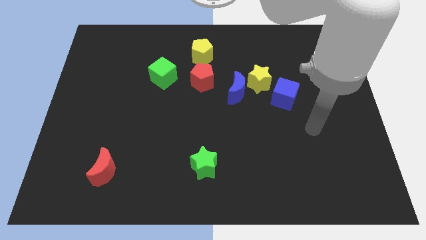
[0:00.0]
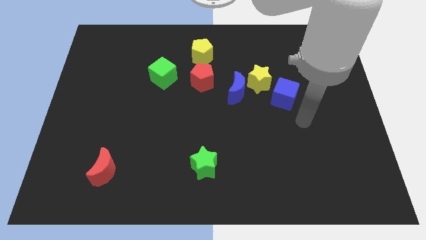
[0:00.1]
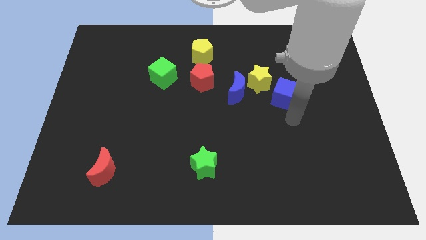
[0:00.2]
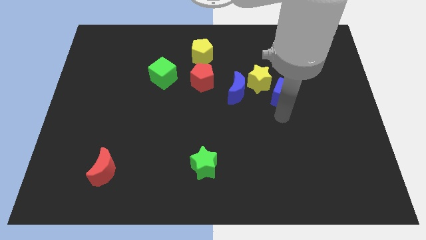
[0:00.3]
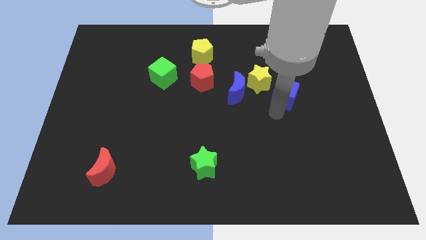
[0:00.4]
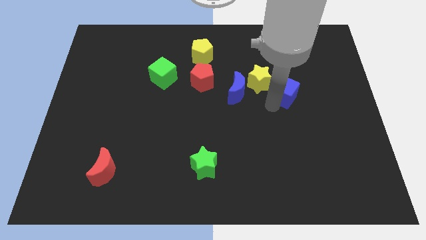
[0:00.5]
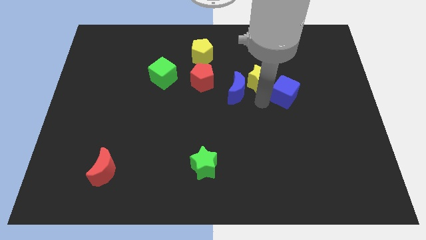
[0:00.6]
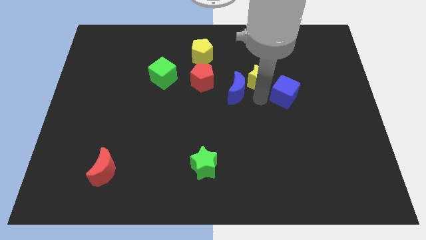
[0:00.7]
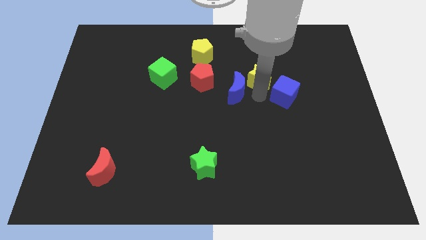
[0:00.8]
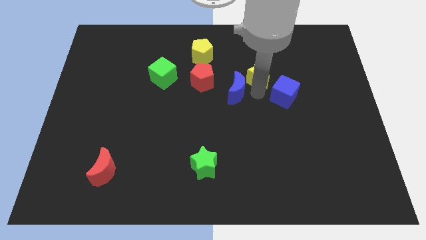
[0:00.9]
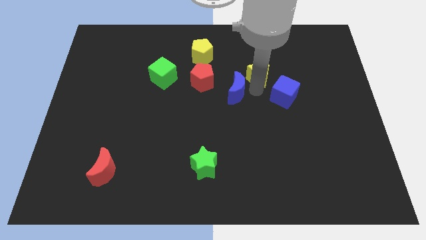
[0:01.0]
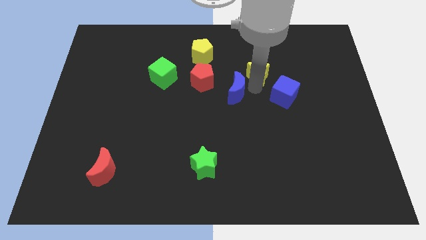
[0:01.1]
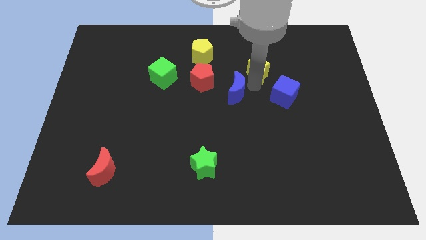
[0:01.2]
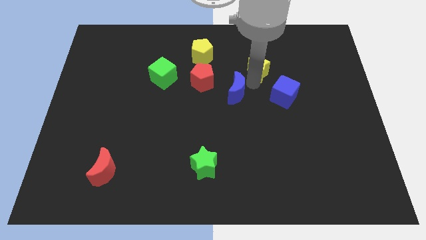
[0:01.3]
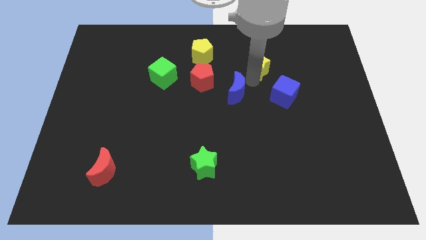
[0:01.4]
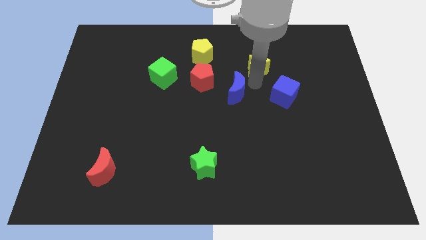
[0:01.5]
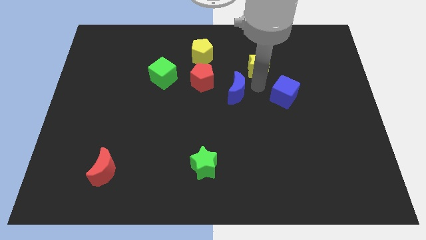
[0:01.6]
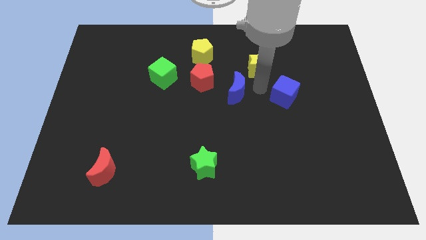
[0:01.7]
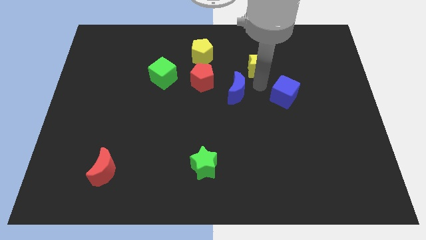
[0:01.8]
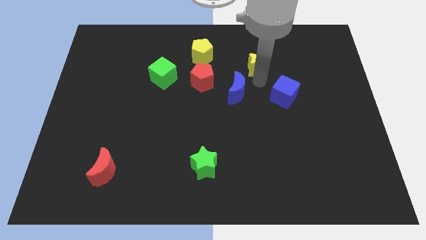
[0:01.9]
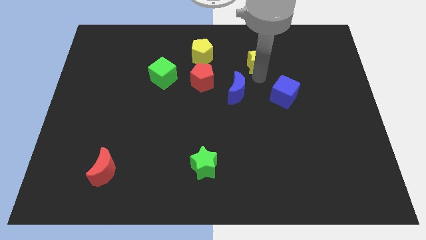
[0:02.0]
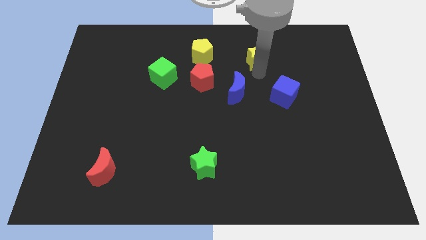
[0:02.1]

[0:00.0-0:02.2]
move the yellow star away from the blue moon and blue cube

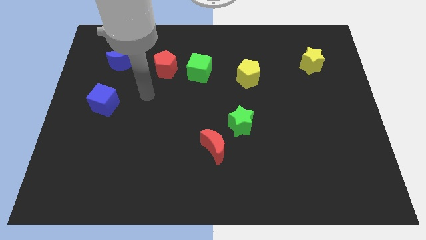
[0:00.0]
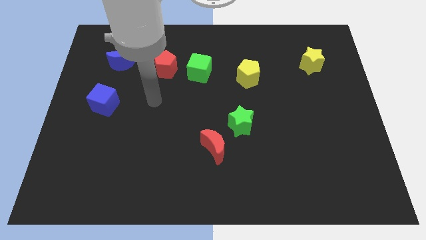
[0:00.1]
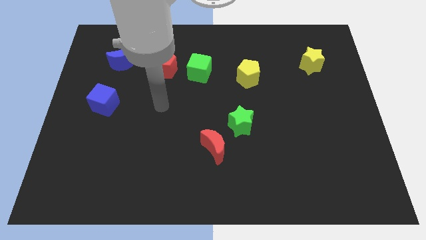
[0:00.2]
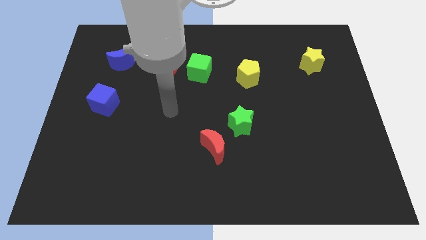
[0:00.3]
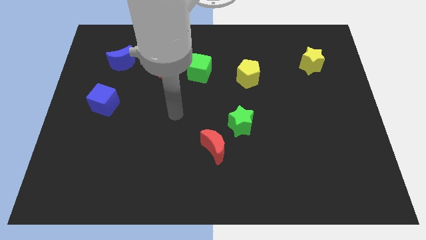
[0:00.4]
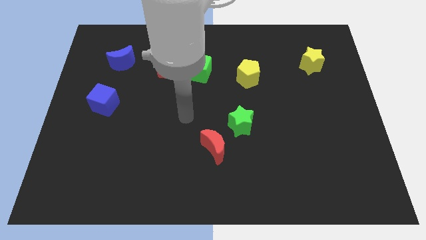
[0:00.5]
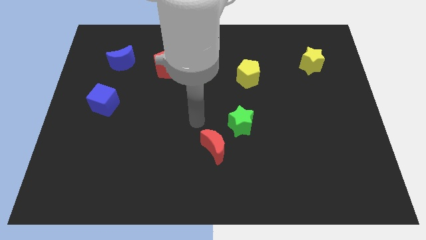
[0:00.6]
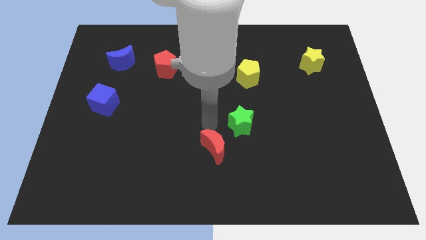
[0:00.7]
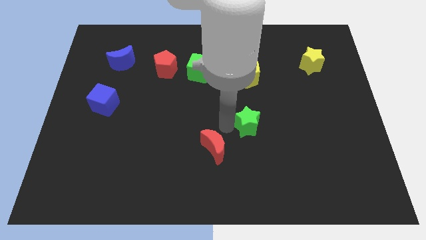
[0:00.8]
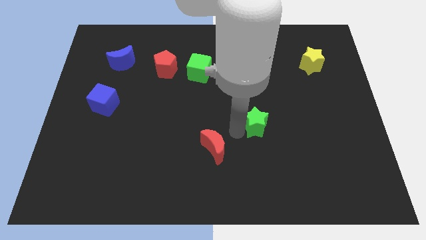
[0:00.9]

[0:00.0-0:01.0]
move the red moon away from the green star

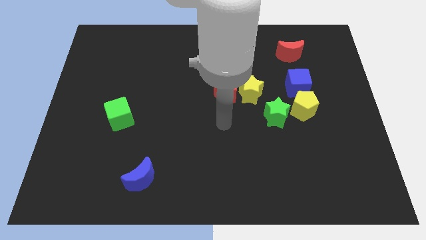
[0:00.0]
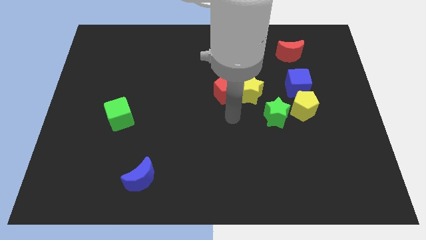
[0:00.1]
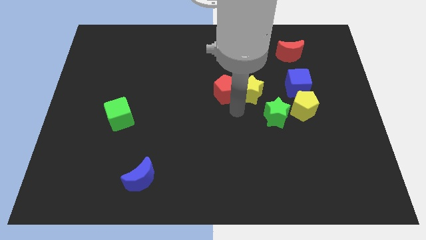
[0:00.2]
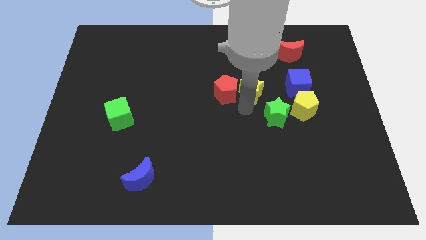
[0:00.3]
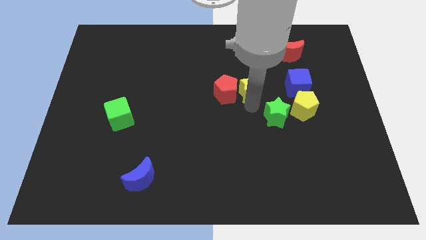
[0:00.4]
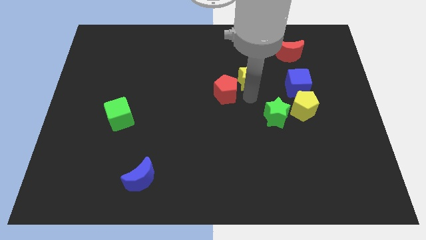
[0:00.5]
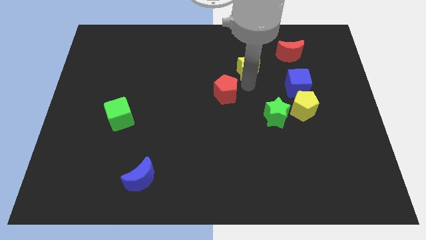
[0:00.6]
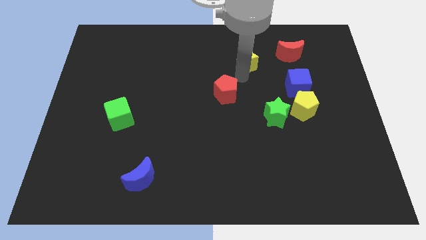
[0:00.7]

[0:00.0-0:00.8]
move the red pentagon away from the yellow star

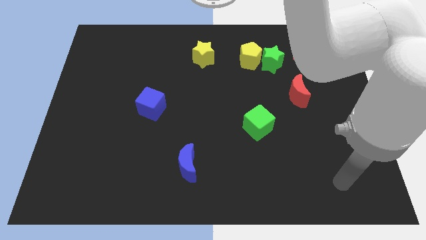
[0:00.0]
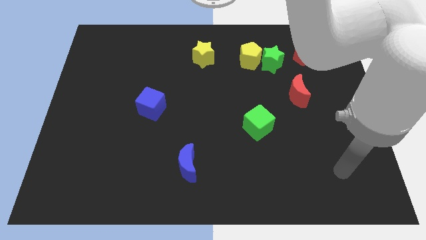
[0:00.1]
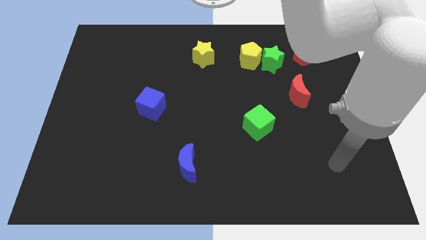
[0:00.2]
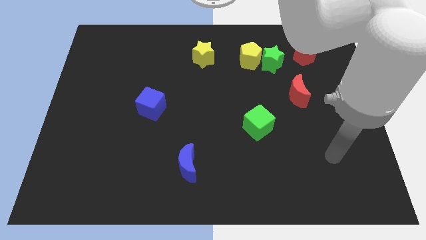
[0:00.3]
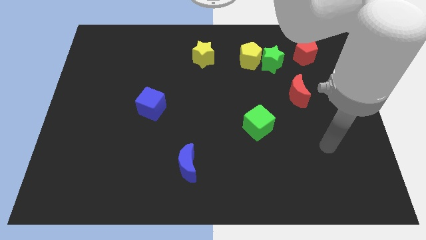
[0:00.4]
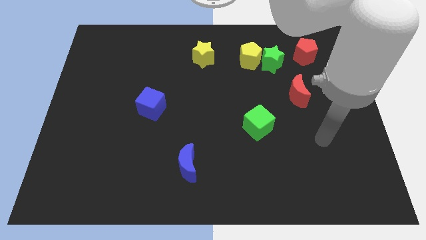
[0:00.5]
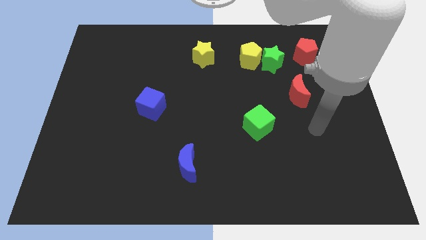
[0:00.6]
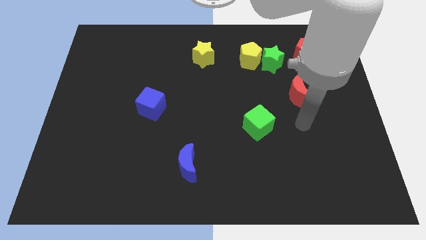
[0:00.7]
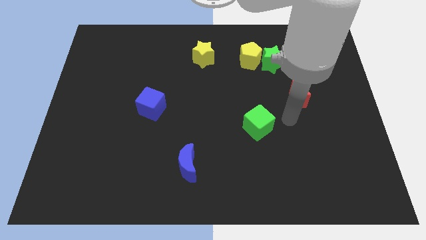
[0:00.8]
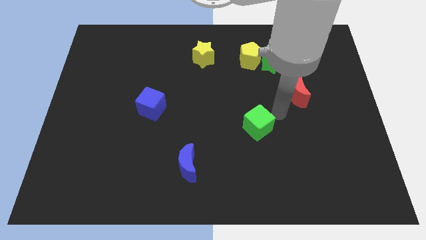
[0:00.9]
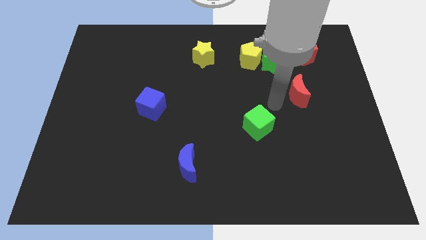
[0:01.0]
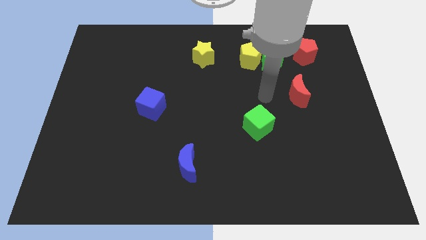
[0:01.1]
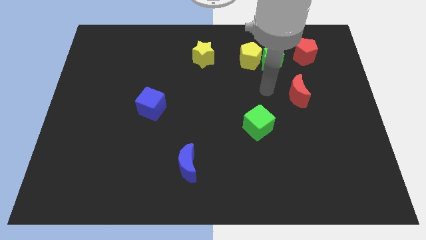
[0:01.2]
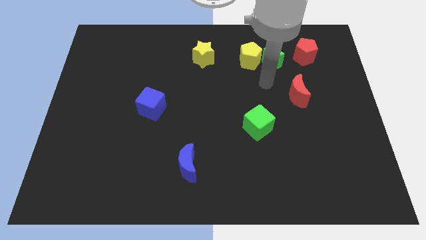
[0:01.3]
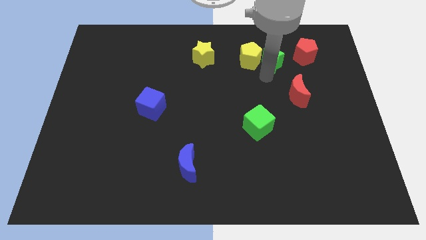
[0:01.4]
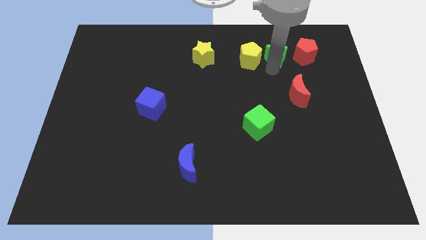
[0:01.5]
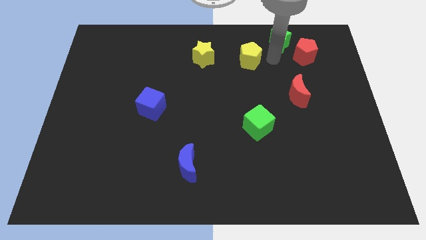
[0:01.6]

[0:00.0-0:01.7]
separate the yellow pentagon from the green star

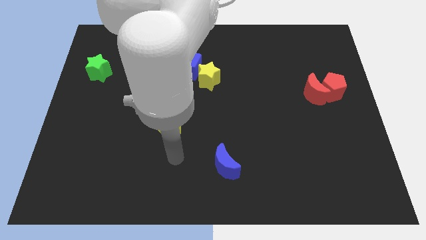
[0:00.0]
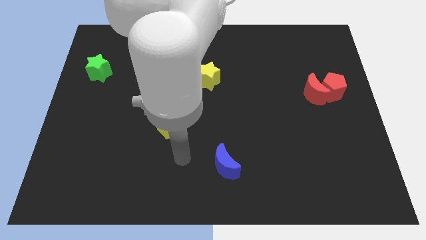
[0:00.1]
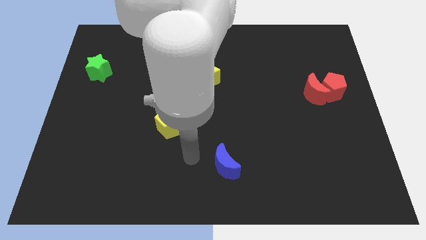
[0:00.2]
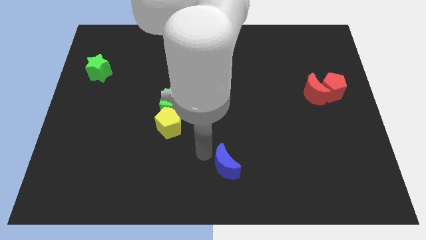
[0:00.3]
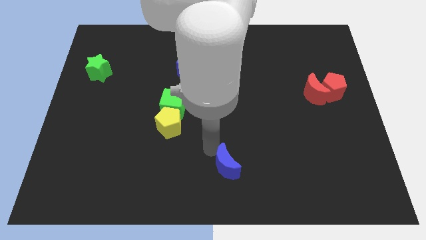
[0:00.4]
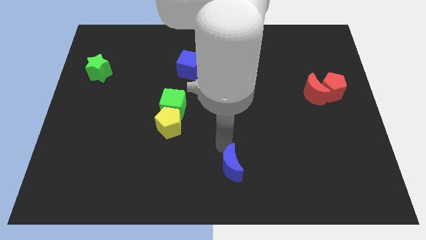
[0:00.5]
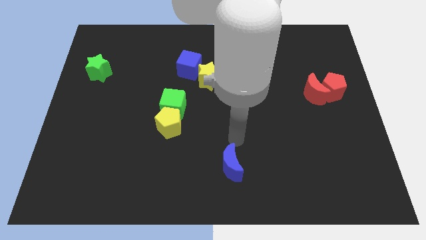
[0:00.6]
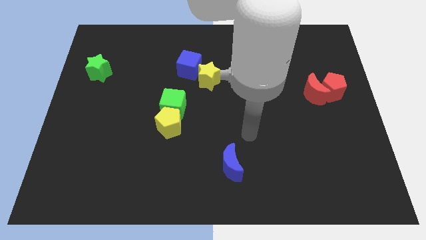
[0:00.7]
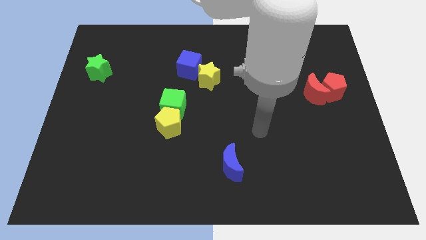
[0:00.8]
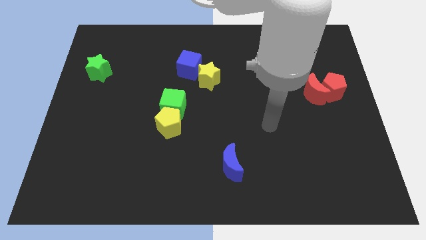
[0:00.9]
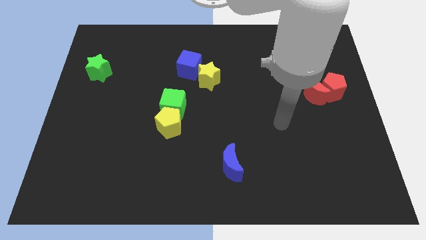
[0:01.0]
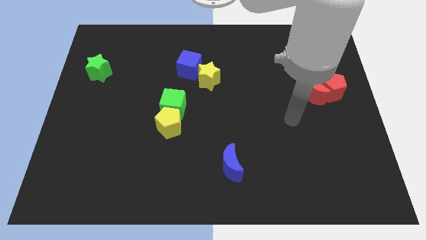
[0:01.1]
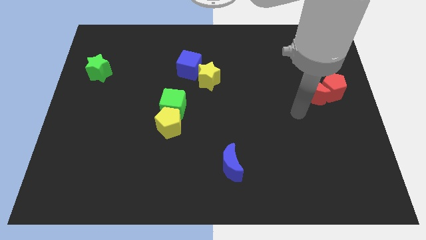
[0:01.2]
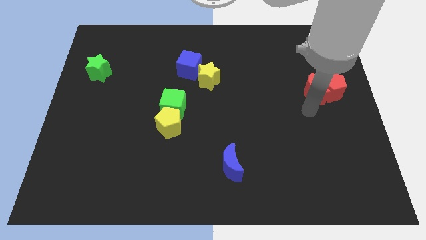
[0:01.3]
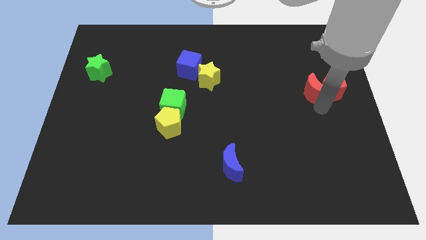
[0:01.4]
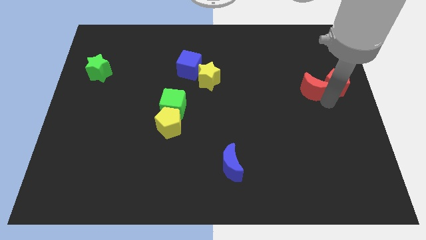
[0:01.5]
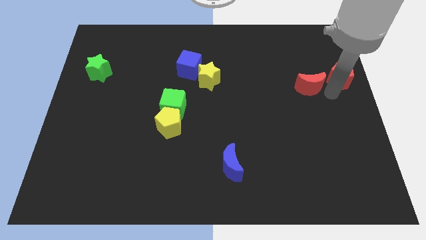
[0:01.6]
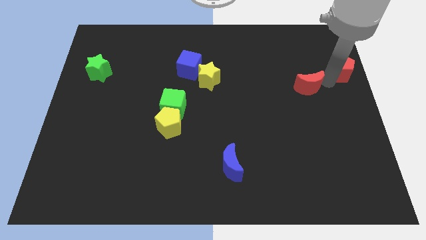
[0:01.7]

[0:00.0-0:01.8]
pull the red moon apart from the red pentagon

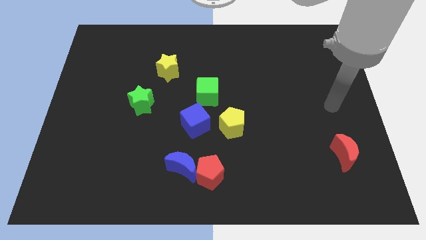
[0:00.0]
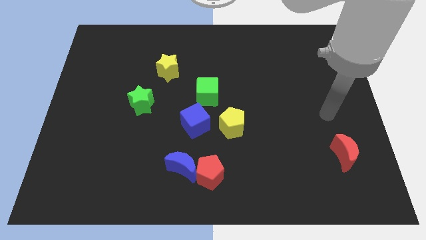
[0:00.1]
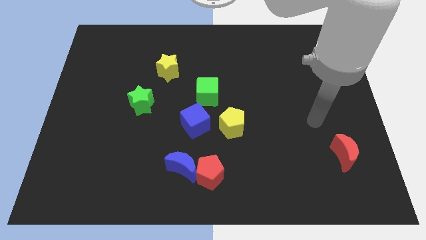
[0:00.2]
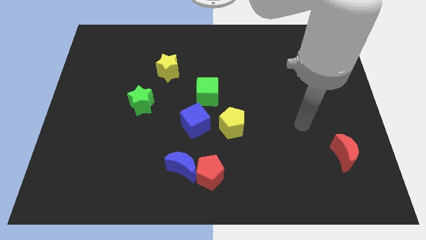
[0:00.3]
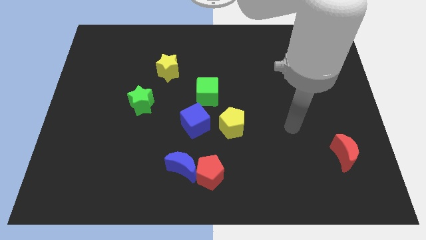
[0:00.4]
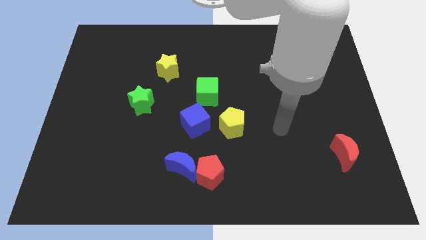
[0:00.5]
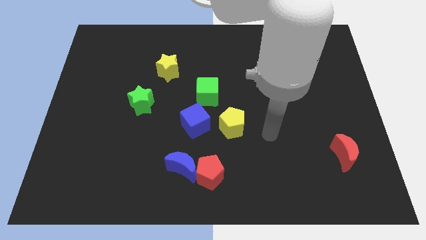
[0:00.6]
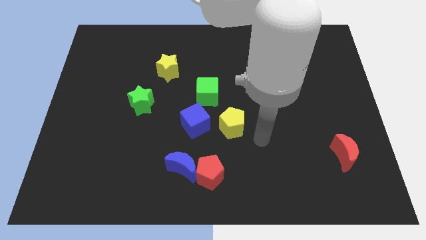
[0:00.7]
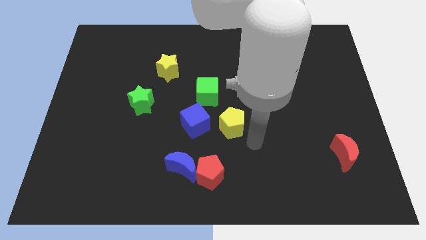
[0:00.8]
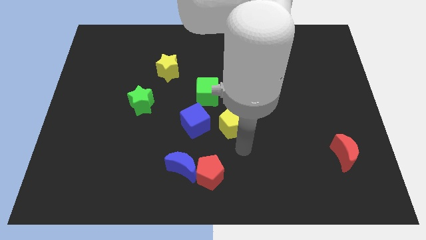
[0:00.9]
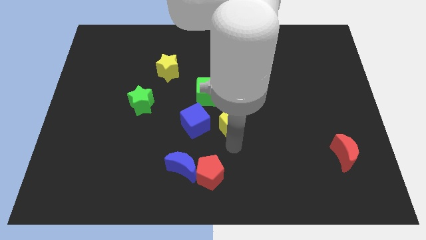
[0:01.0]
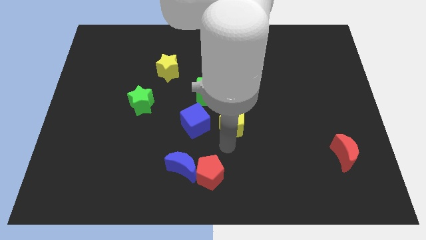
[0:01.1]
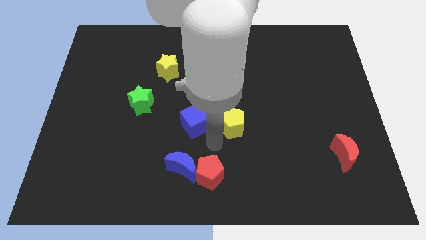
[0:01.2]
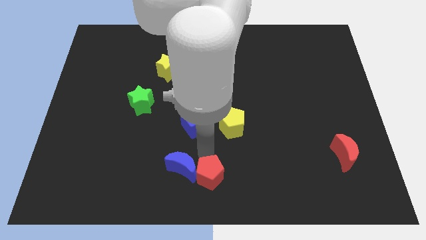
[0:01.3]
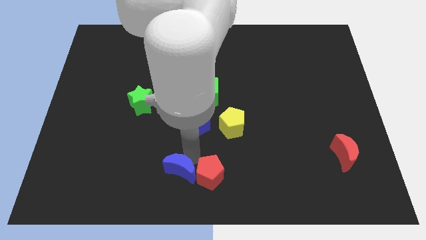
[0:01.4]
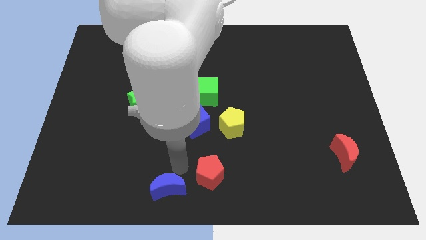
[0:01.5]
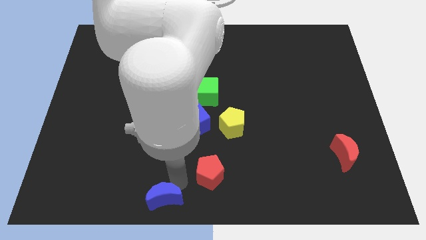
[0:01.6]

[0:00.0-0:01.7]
pull the red pentagon apart from the blue moon
